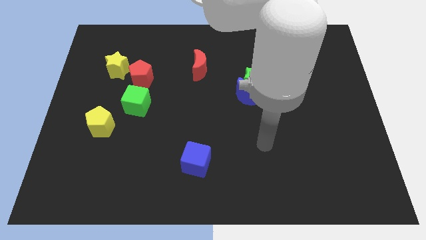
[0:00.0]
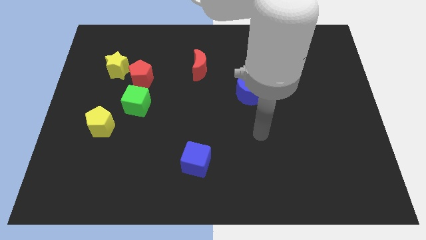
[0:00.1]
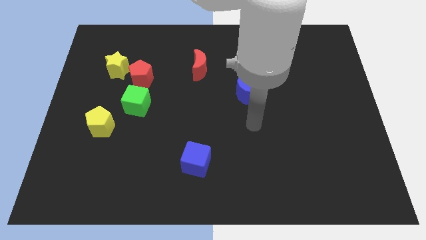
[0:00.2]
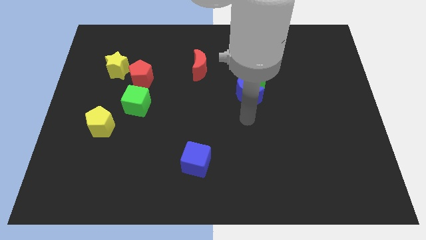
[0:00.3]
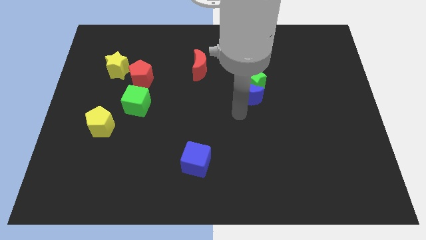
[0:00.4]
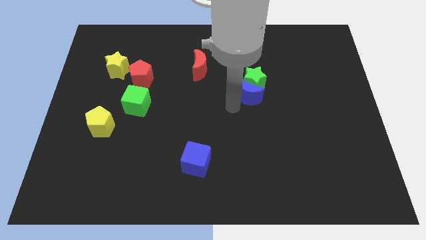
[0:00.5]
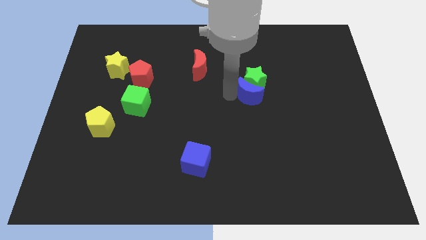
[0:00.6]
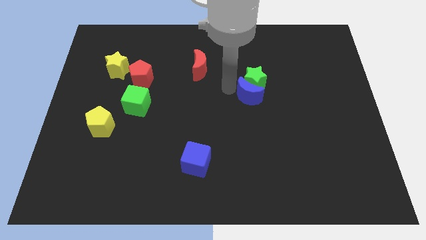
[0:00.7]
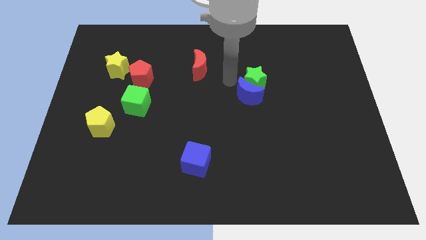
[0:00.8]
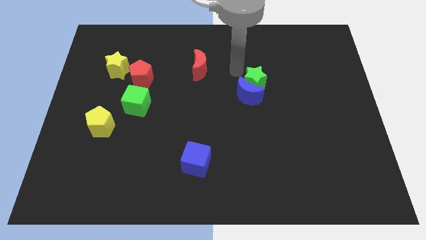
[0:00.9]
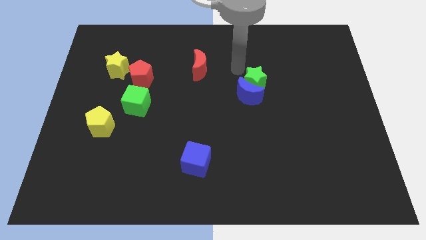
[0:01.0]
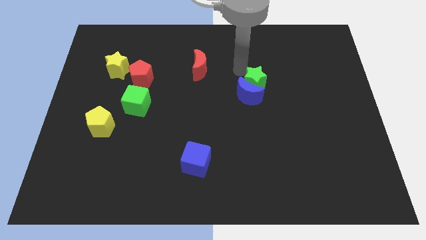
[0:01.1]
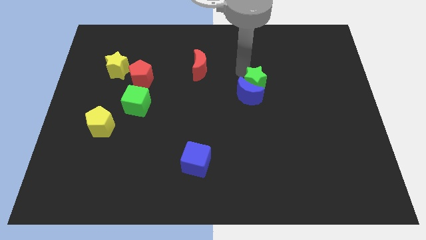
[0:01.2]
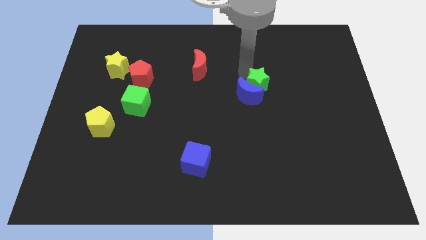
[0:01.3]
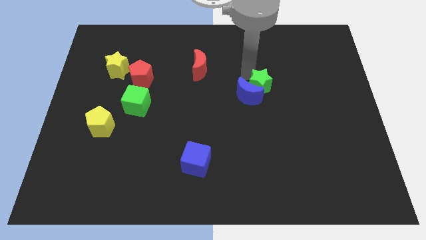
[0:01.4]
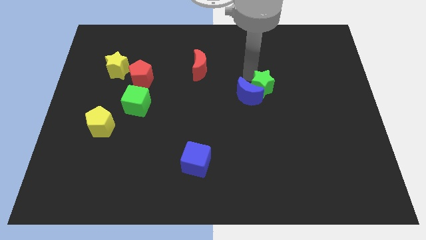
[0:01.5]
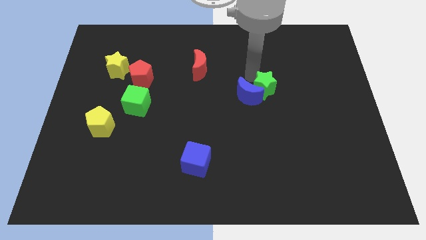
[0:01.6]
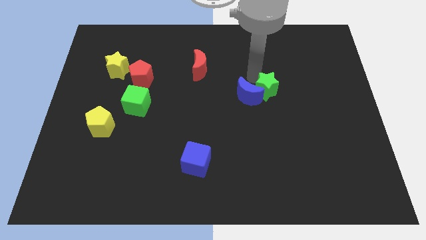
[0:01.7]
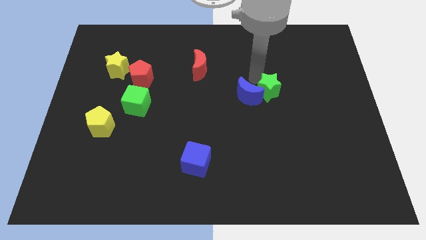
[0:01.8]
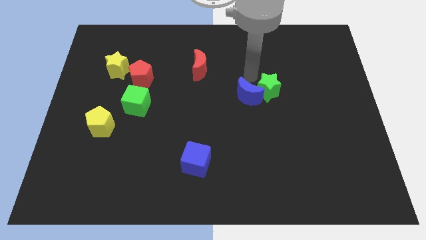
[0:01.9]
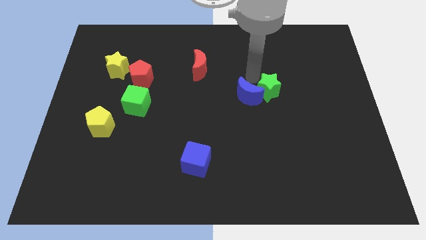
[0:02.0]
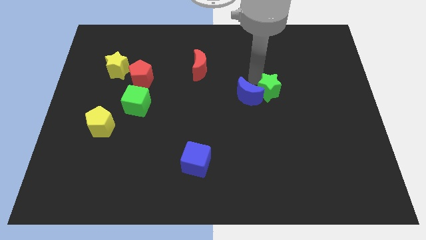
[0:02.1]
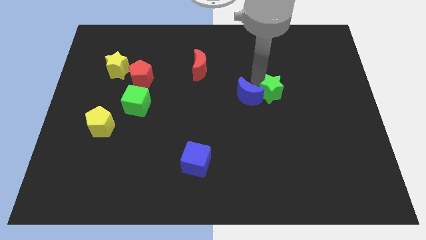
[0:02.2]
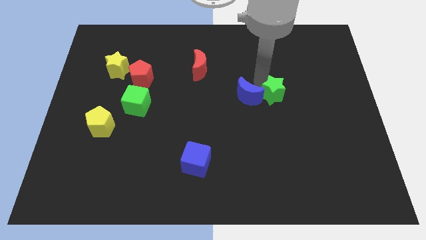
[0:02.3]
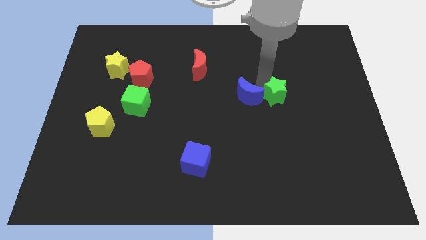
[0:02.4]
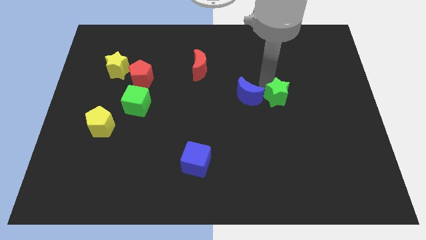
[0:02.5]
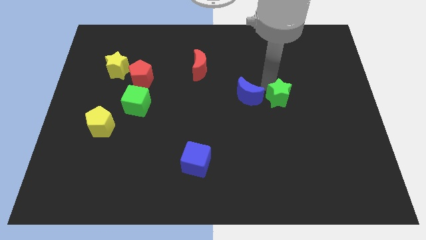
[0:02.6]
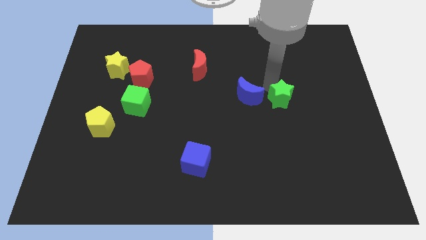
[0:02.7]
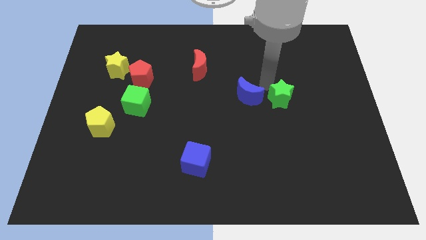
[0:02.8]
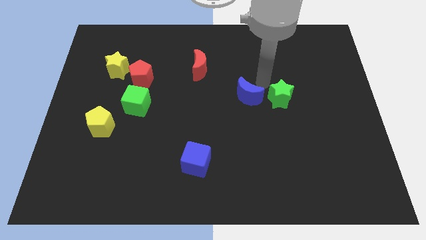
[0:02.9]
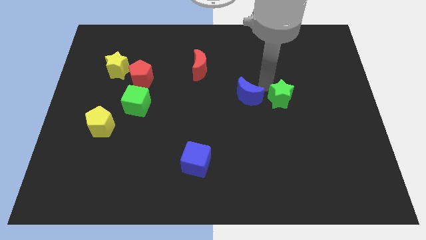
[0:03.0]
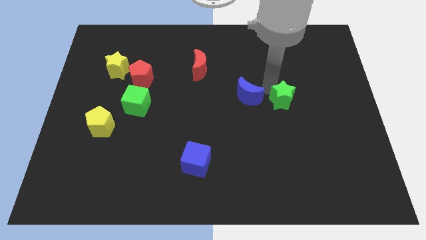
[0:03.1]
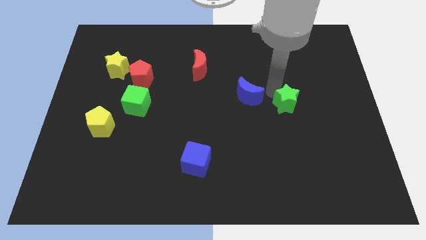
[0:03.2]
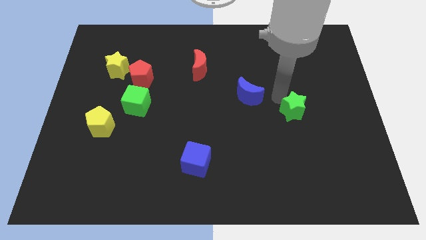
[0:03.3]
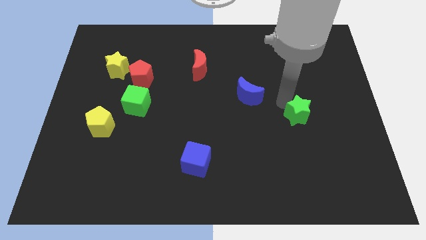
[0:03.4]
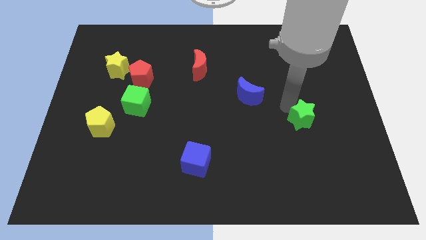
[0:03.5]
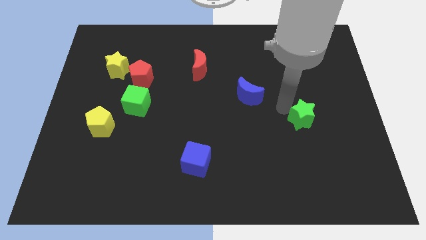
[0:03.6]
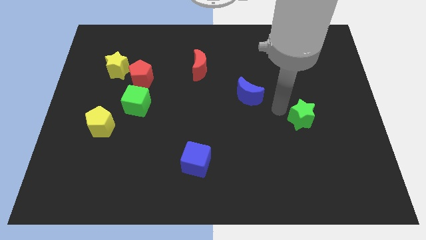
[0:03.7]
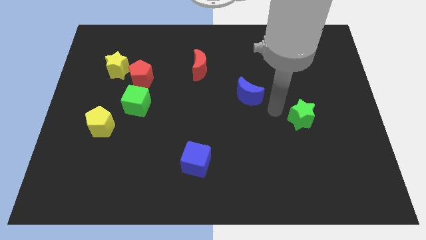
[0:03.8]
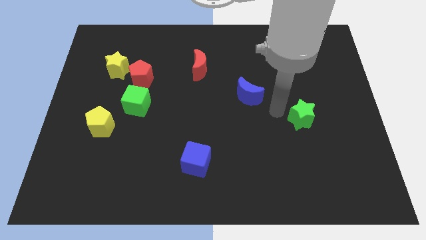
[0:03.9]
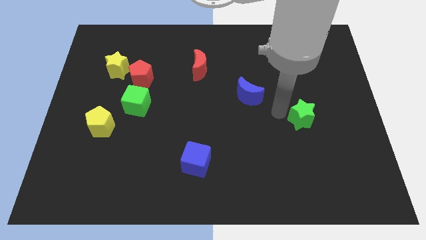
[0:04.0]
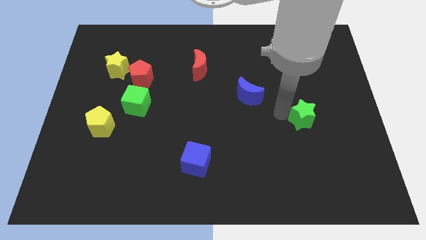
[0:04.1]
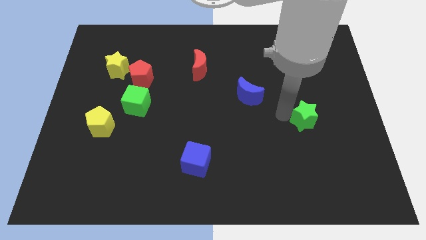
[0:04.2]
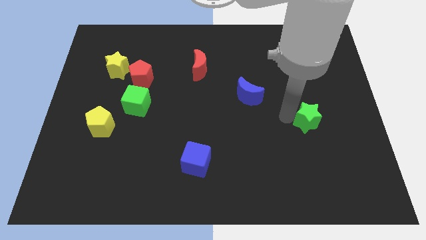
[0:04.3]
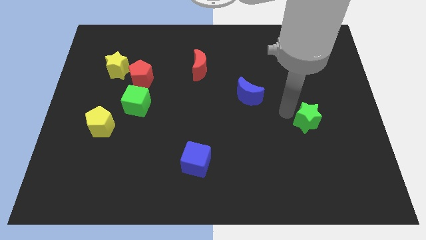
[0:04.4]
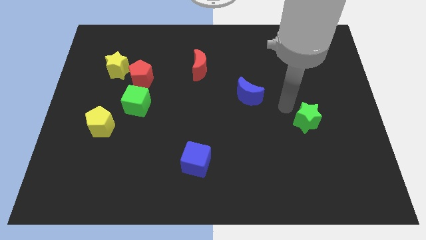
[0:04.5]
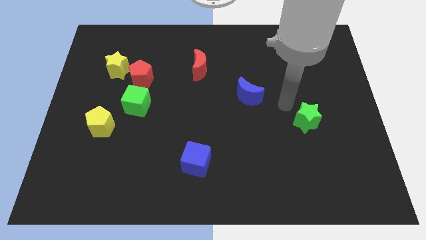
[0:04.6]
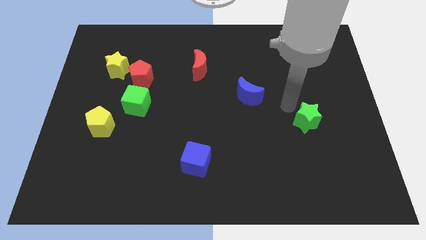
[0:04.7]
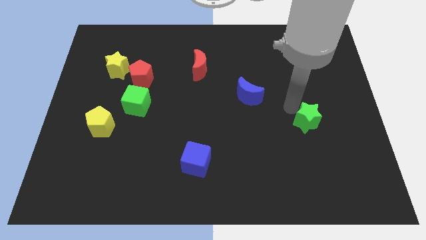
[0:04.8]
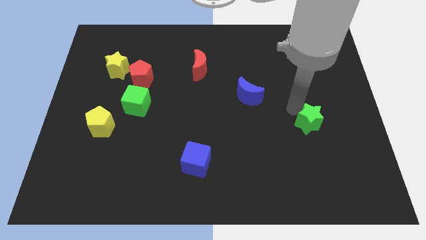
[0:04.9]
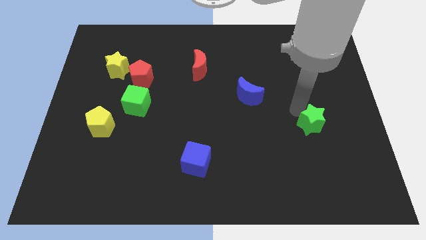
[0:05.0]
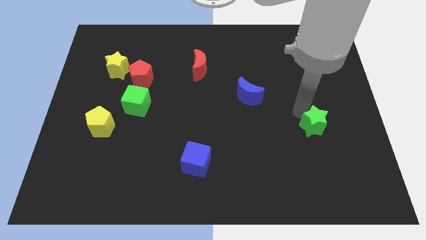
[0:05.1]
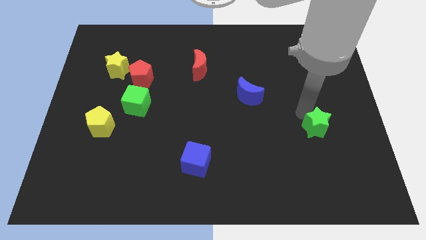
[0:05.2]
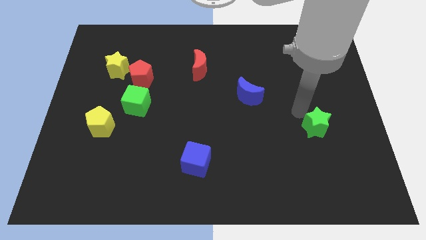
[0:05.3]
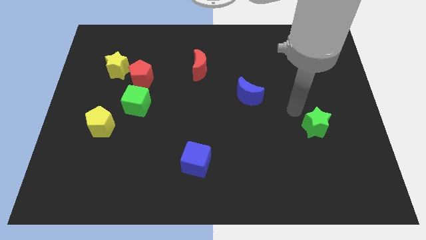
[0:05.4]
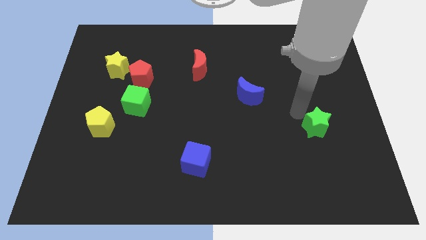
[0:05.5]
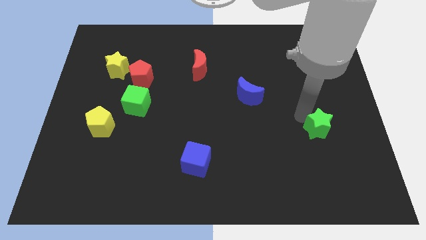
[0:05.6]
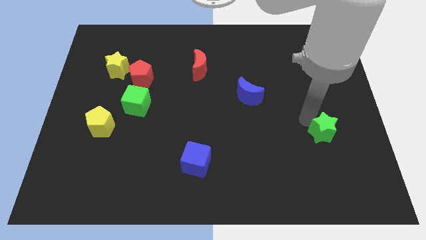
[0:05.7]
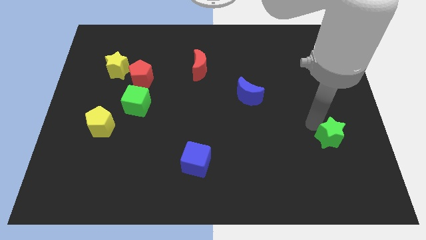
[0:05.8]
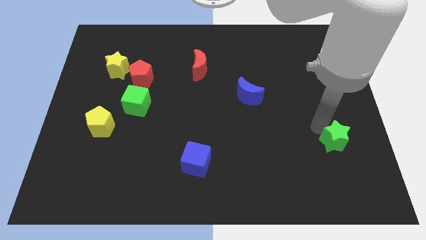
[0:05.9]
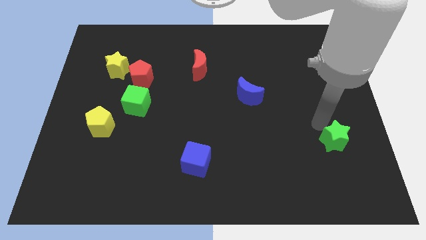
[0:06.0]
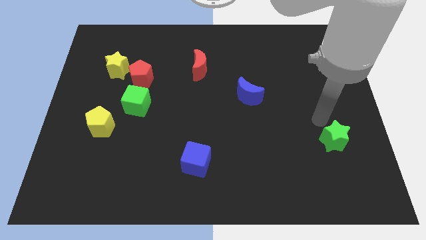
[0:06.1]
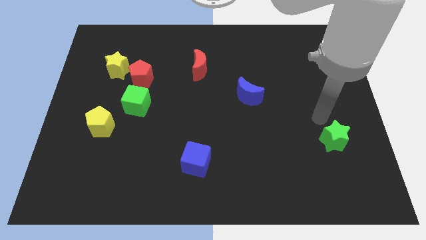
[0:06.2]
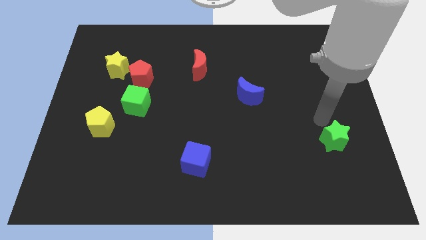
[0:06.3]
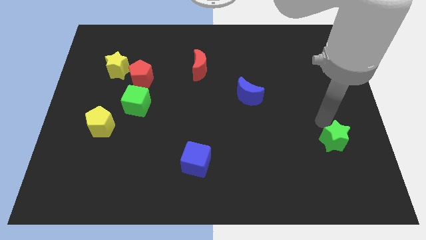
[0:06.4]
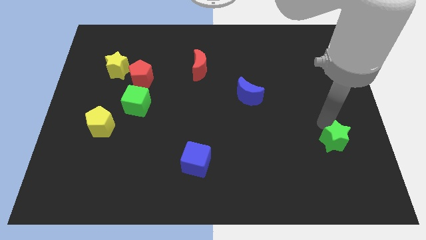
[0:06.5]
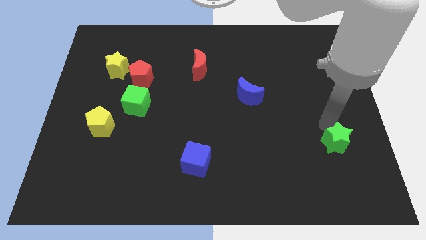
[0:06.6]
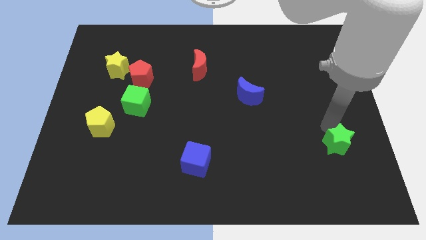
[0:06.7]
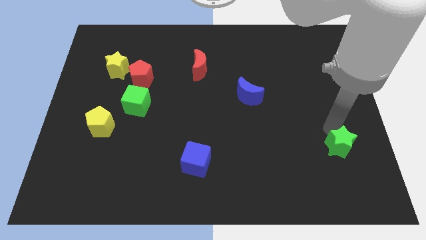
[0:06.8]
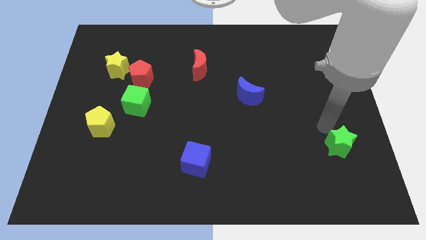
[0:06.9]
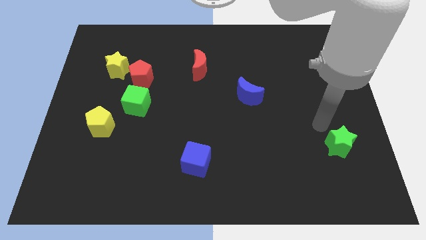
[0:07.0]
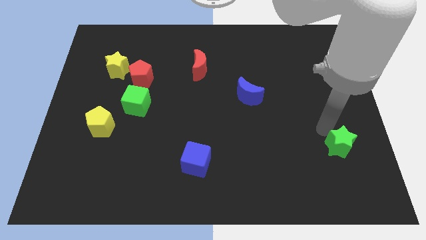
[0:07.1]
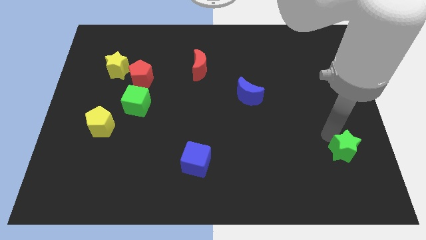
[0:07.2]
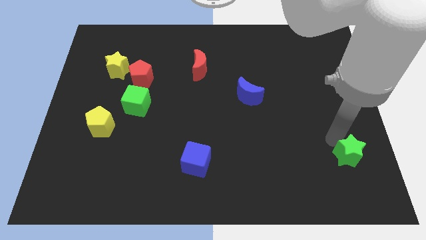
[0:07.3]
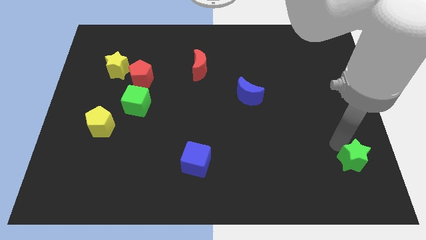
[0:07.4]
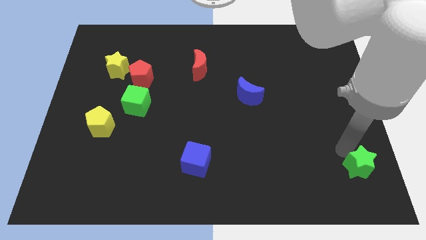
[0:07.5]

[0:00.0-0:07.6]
move the green star to the bottom right corner
